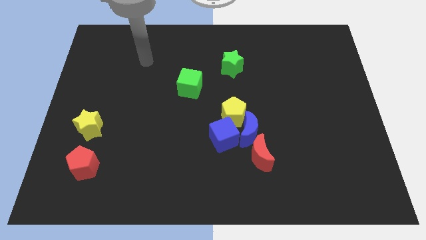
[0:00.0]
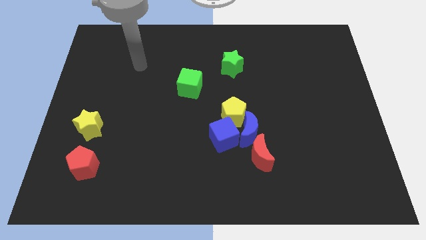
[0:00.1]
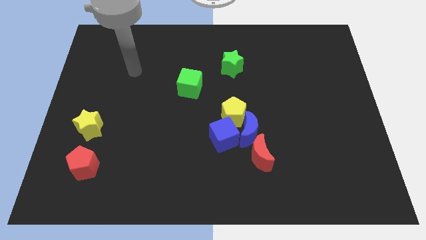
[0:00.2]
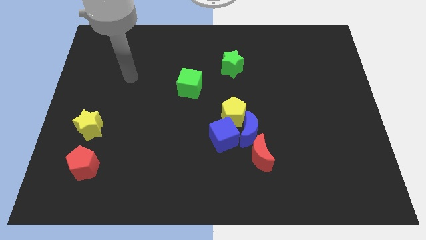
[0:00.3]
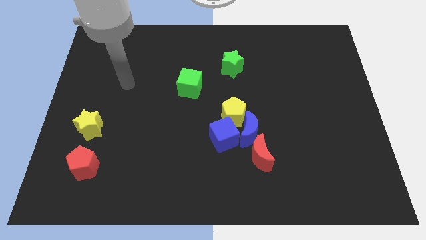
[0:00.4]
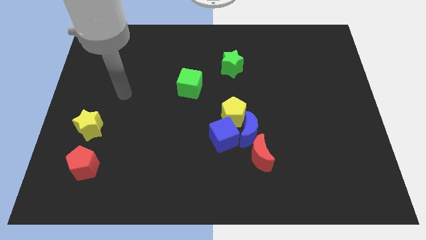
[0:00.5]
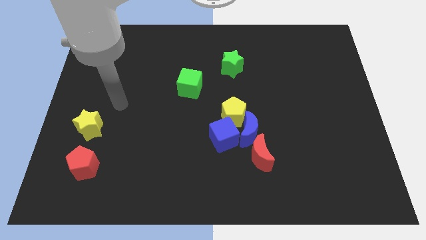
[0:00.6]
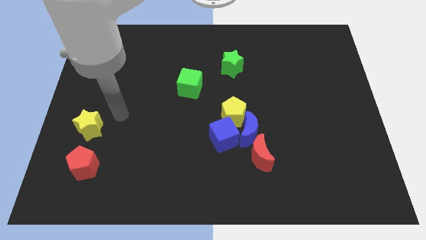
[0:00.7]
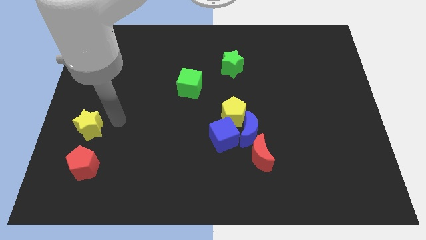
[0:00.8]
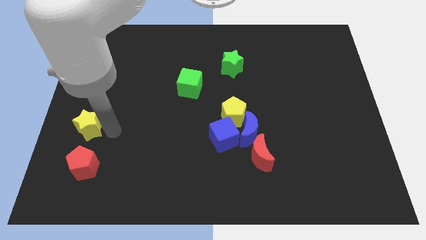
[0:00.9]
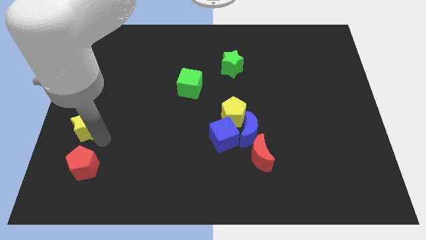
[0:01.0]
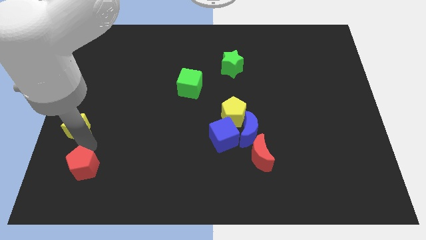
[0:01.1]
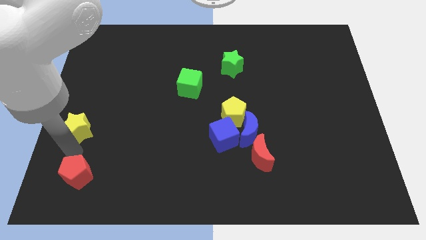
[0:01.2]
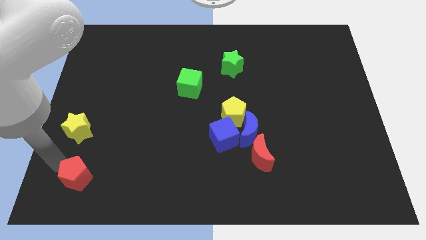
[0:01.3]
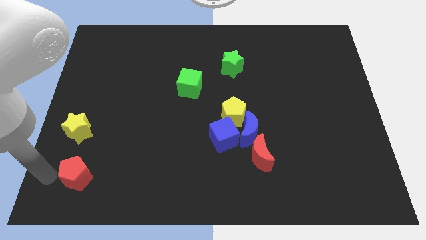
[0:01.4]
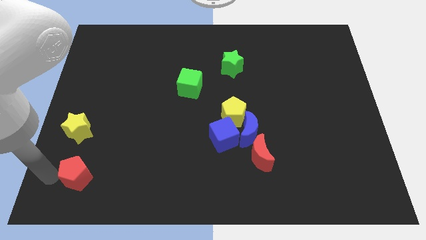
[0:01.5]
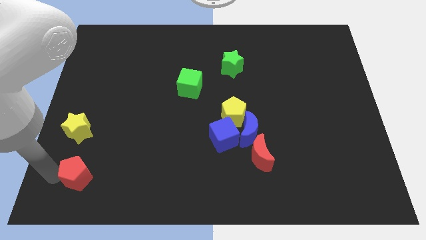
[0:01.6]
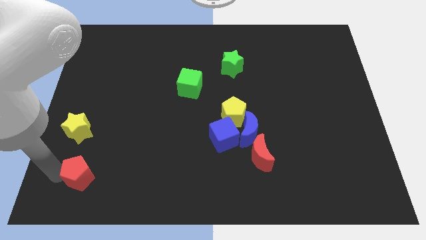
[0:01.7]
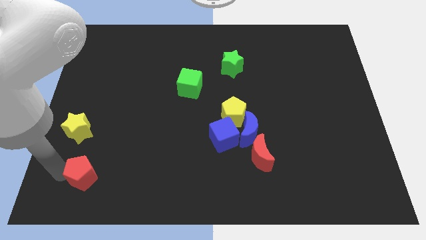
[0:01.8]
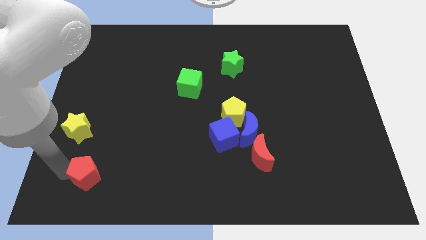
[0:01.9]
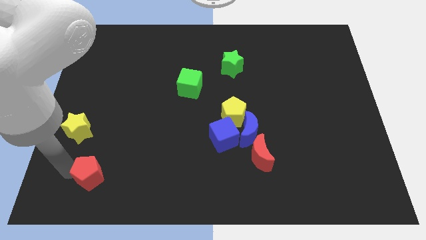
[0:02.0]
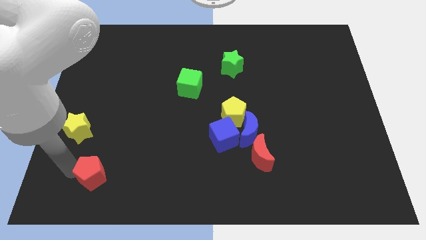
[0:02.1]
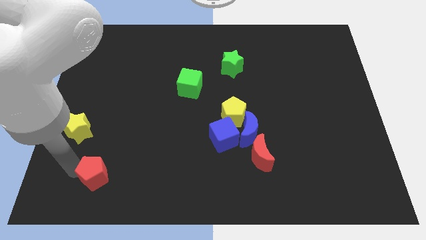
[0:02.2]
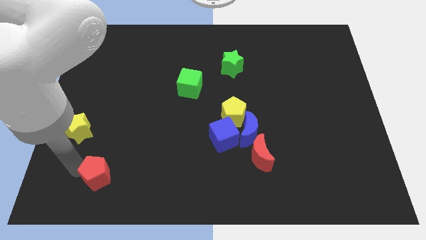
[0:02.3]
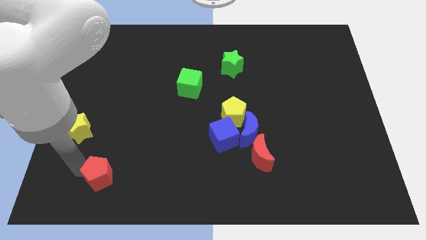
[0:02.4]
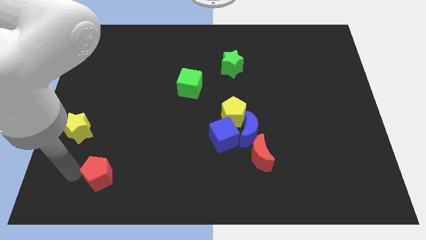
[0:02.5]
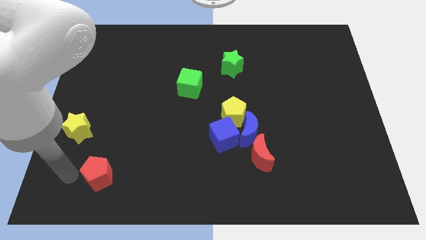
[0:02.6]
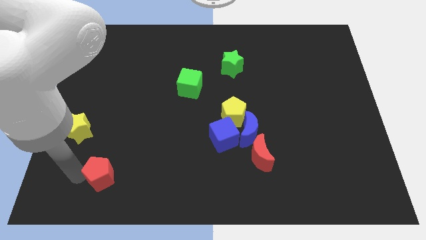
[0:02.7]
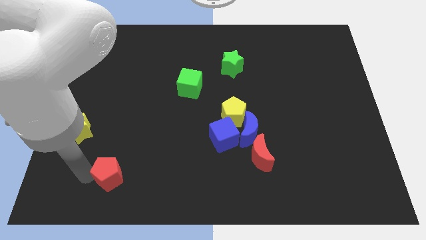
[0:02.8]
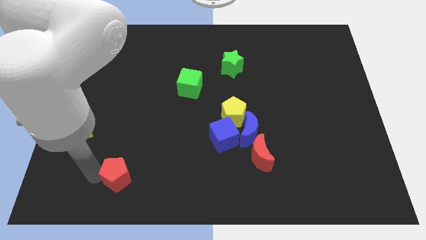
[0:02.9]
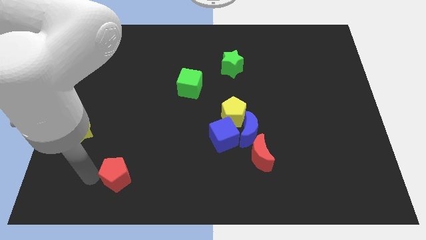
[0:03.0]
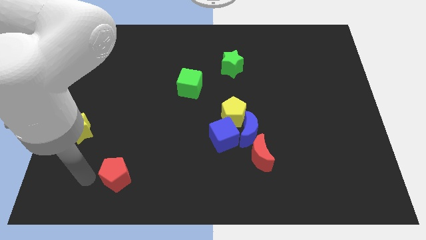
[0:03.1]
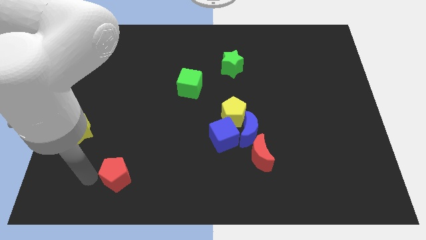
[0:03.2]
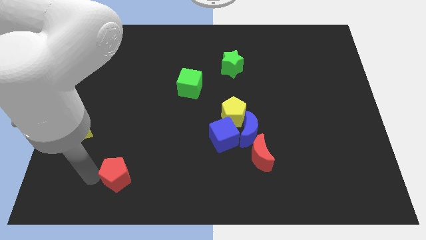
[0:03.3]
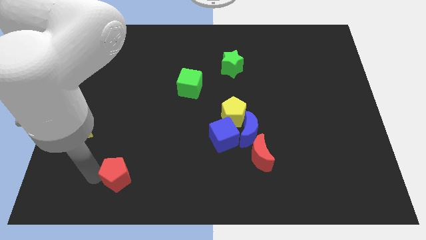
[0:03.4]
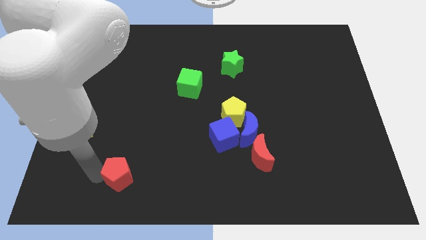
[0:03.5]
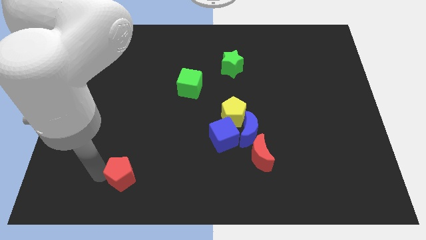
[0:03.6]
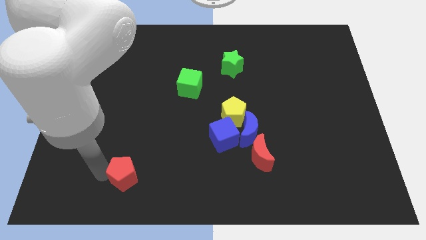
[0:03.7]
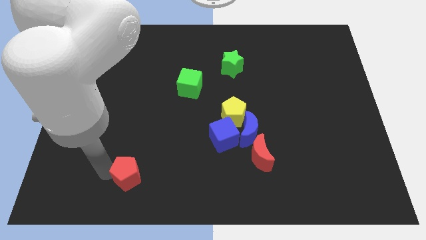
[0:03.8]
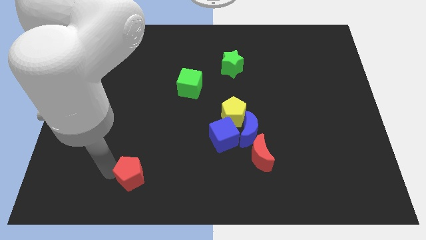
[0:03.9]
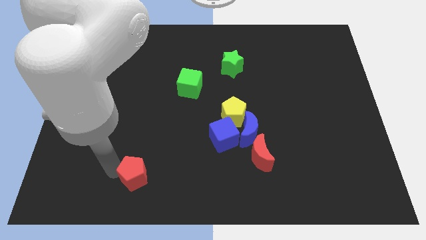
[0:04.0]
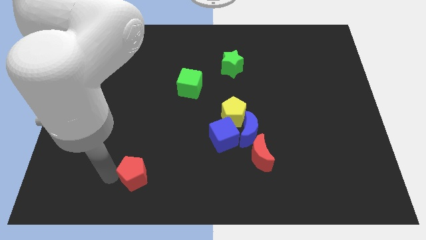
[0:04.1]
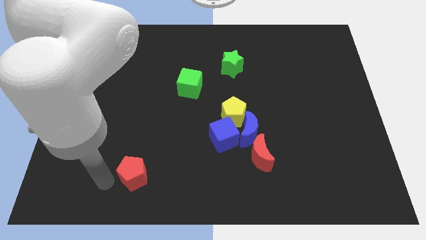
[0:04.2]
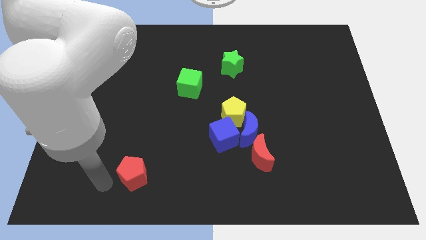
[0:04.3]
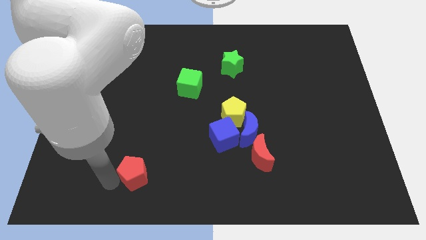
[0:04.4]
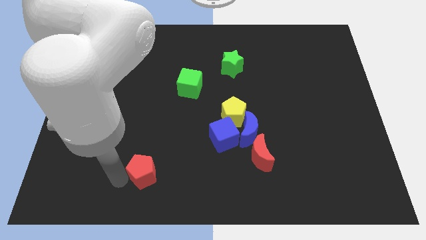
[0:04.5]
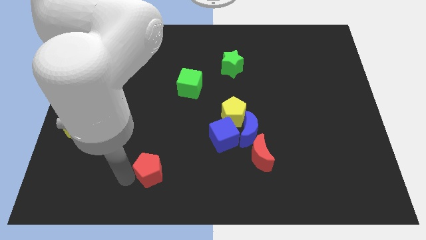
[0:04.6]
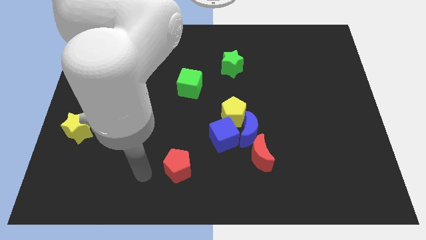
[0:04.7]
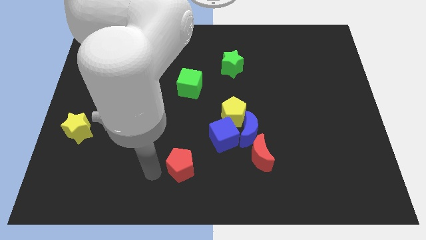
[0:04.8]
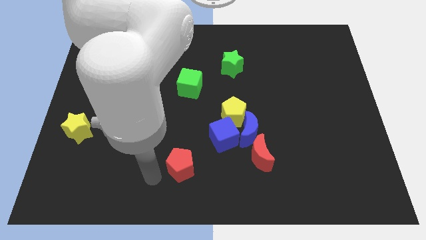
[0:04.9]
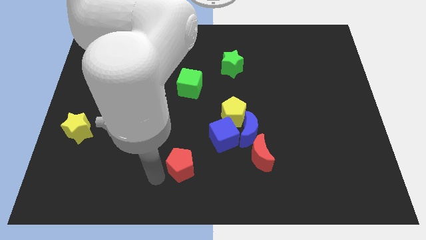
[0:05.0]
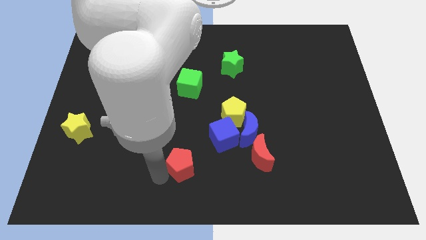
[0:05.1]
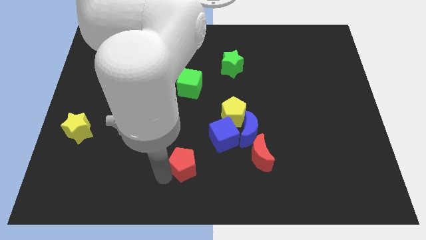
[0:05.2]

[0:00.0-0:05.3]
slide the red pentagon to the left of the red moon

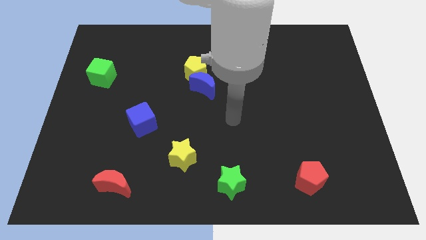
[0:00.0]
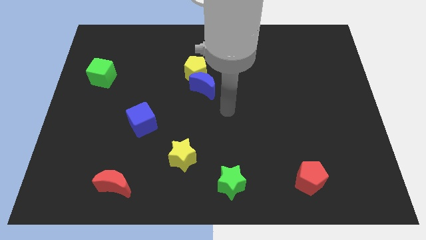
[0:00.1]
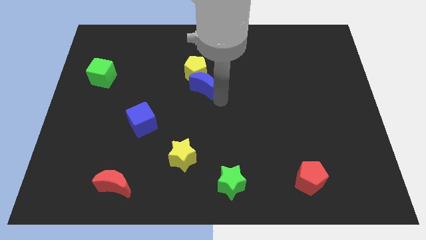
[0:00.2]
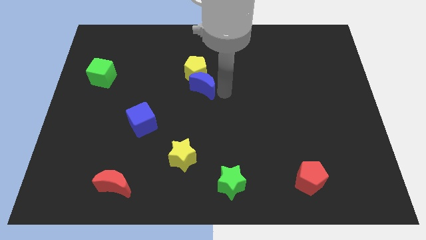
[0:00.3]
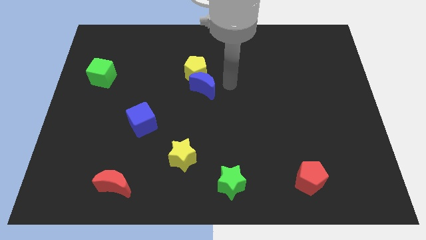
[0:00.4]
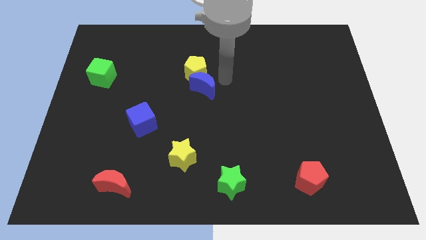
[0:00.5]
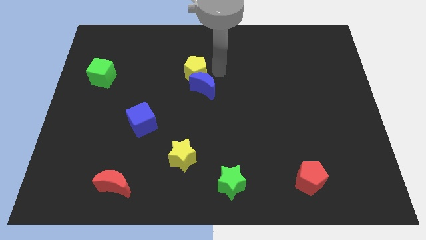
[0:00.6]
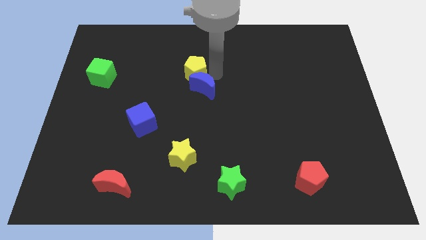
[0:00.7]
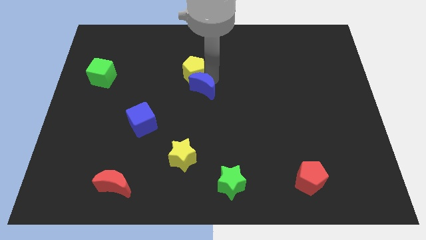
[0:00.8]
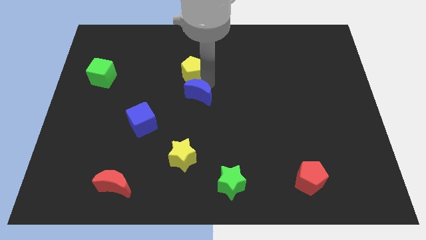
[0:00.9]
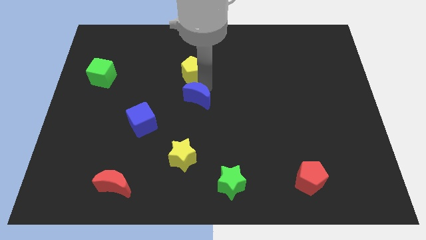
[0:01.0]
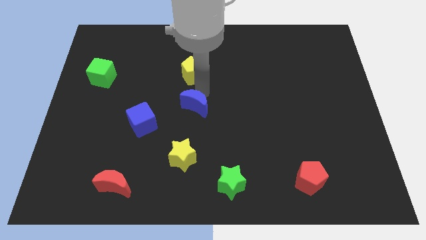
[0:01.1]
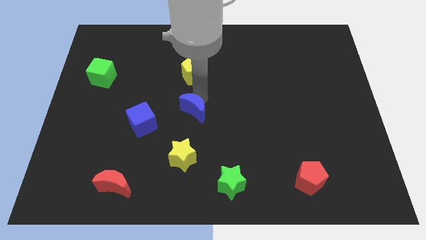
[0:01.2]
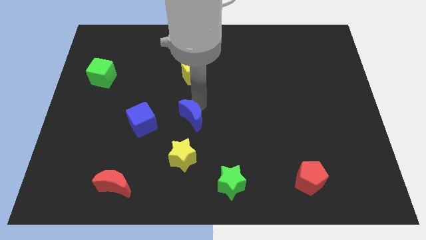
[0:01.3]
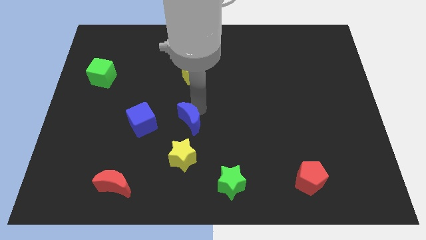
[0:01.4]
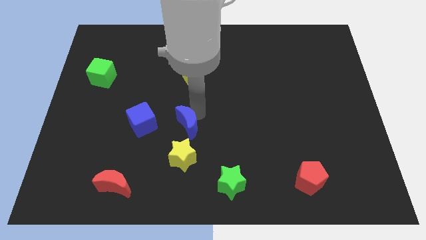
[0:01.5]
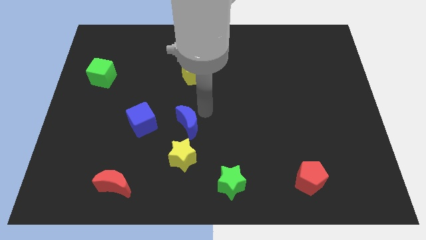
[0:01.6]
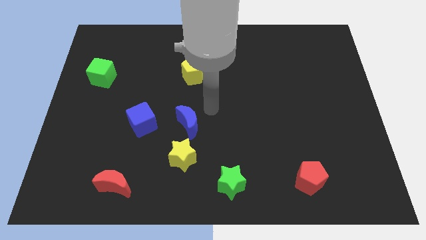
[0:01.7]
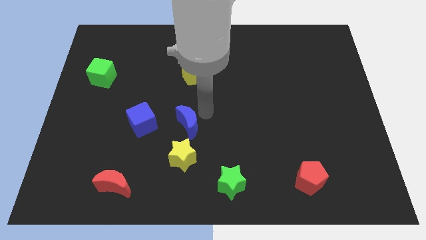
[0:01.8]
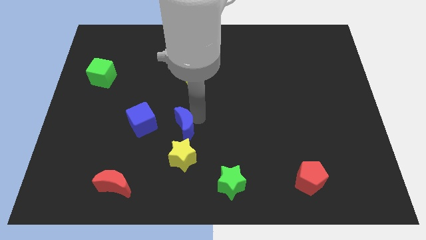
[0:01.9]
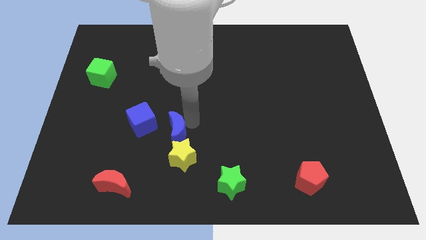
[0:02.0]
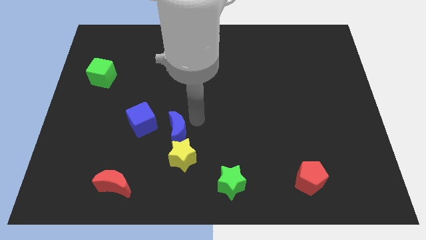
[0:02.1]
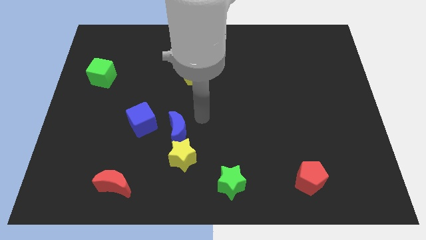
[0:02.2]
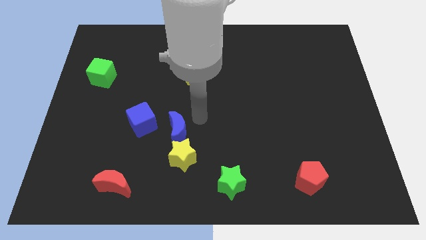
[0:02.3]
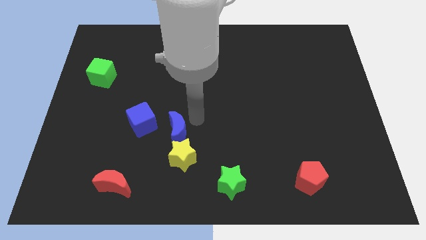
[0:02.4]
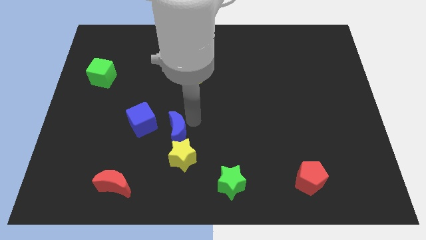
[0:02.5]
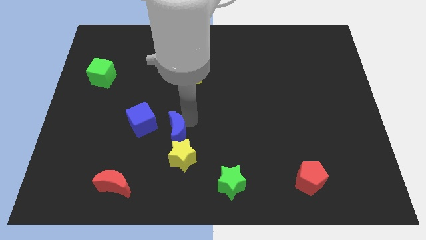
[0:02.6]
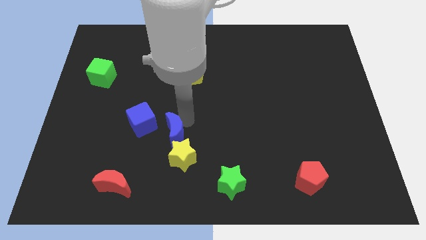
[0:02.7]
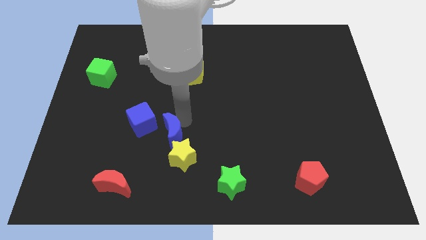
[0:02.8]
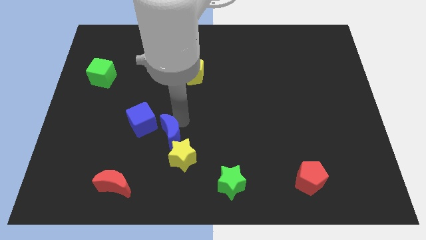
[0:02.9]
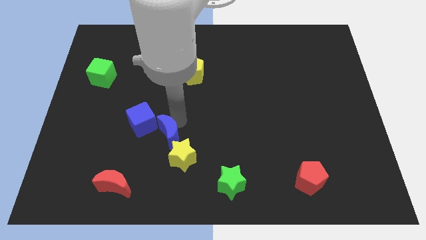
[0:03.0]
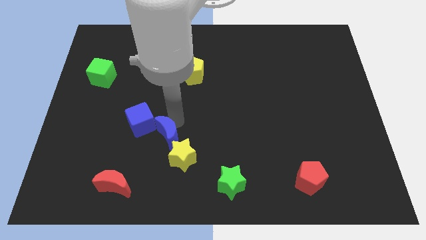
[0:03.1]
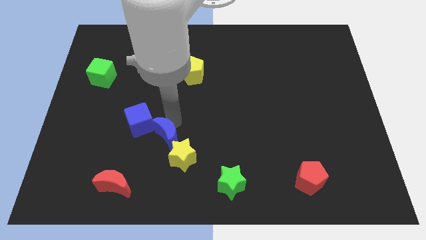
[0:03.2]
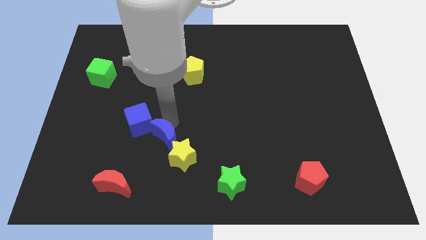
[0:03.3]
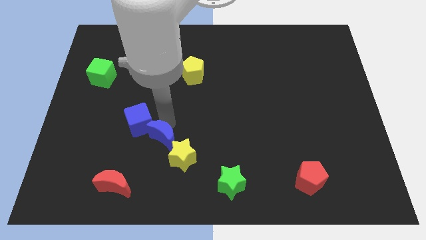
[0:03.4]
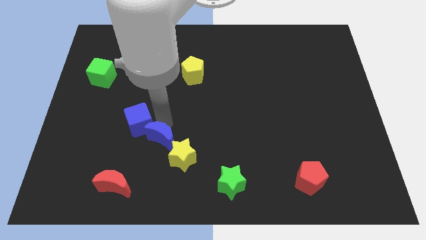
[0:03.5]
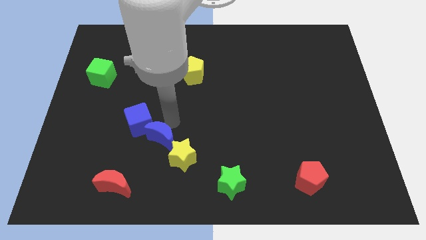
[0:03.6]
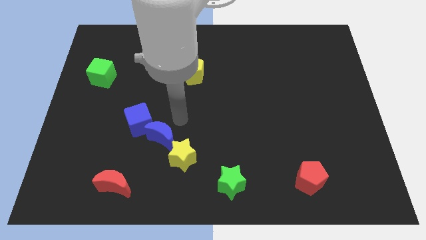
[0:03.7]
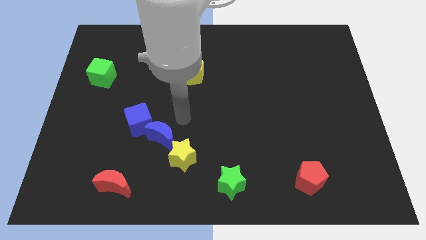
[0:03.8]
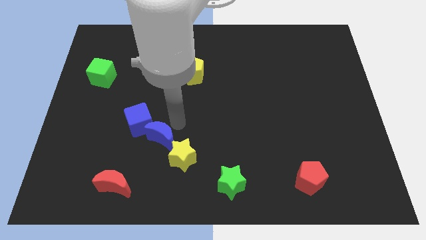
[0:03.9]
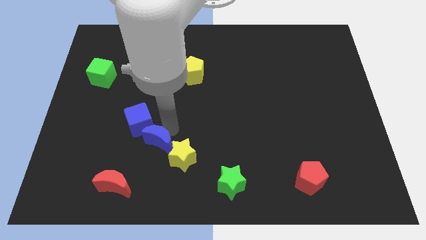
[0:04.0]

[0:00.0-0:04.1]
push the blue moon to the bottom side of the blue cube
